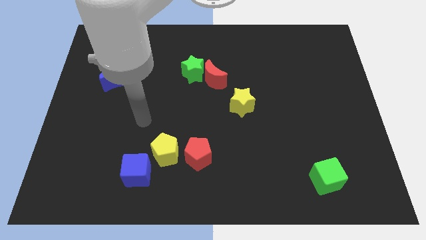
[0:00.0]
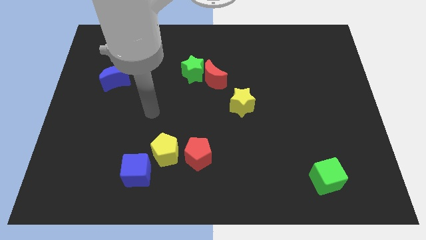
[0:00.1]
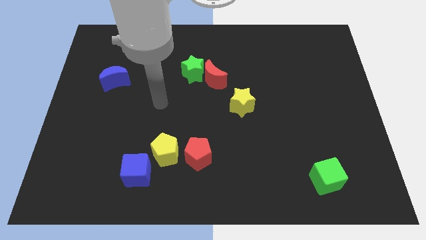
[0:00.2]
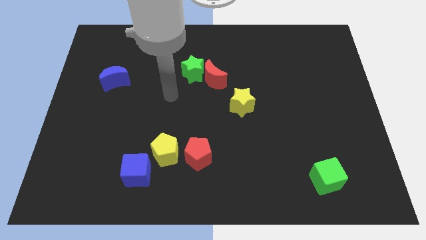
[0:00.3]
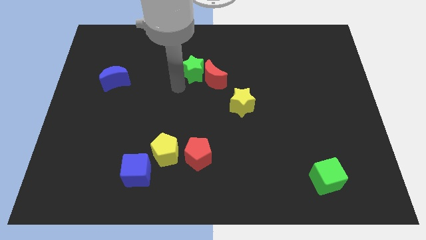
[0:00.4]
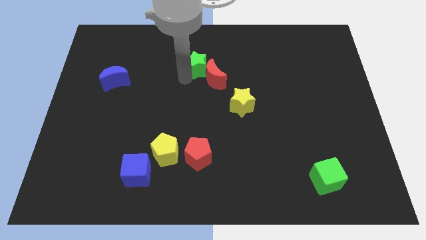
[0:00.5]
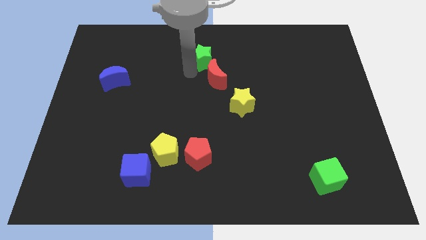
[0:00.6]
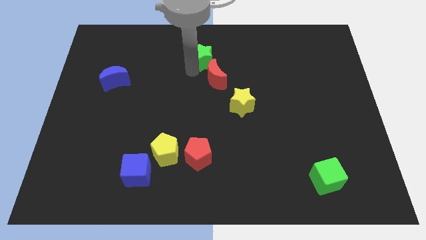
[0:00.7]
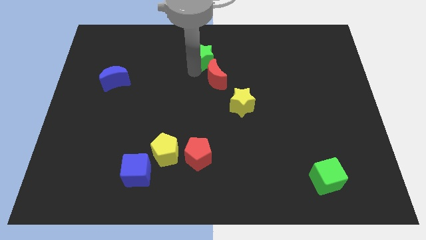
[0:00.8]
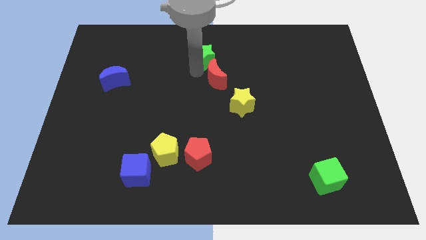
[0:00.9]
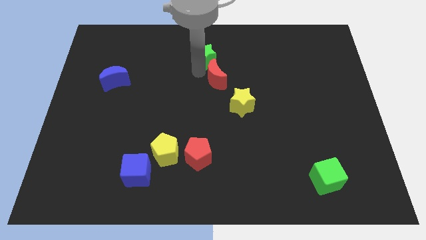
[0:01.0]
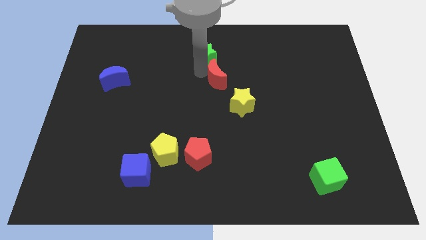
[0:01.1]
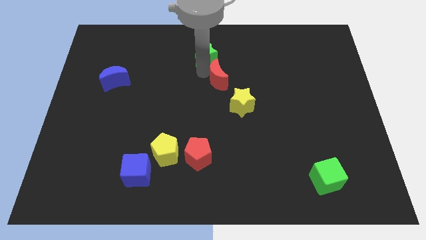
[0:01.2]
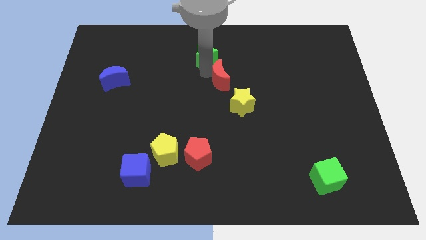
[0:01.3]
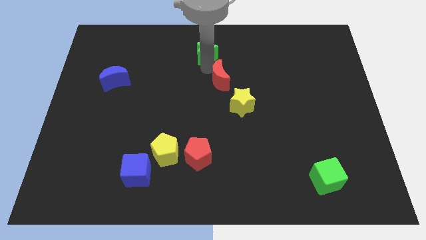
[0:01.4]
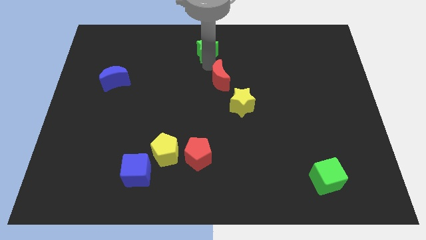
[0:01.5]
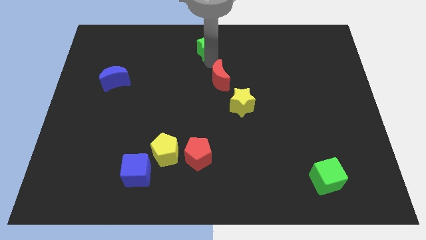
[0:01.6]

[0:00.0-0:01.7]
separate the red moon from the green star

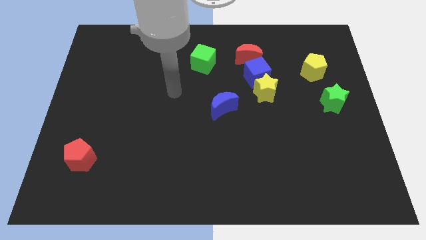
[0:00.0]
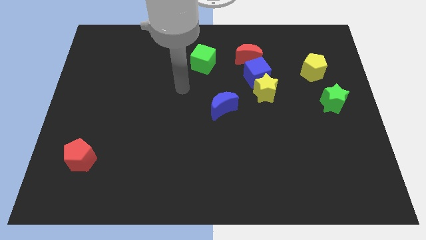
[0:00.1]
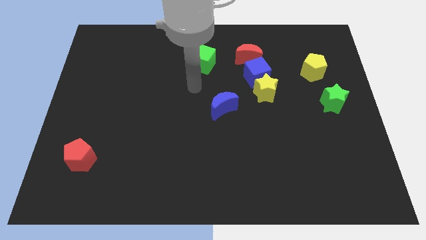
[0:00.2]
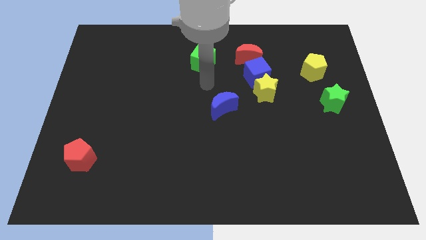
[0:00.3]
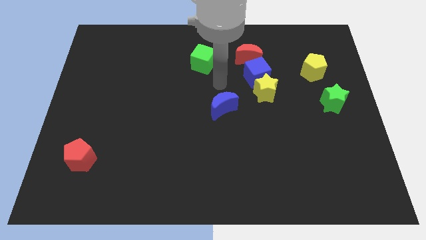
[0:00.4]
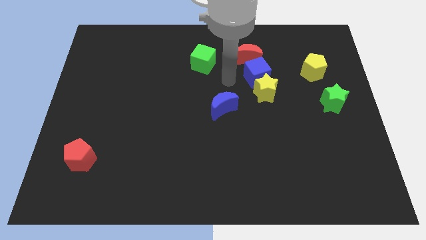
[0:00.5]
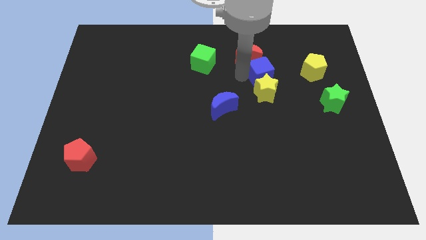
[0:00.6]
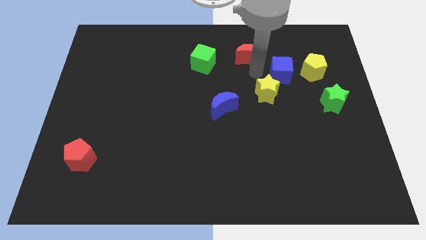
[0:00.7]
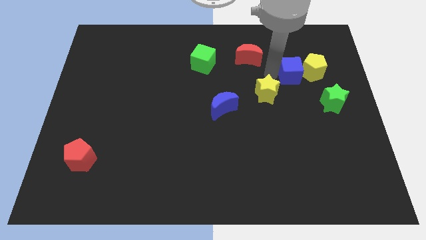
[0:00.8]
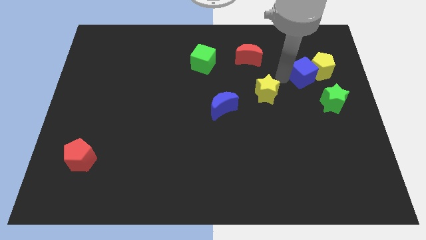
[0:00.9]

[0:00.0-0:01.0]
move the yellow star away from the blue cube

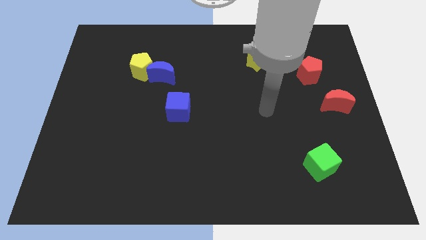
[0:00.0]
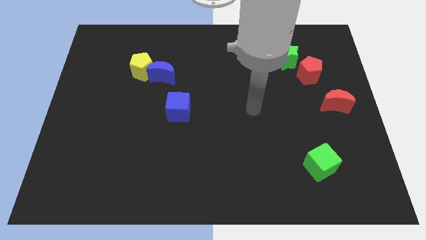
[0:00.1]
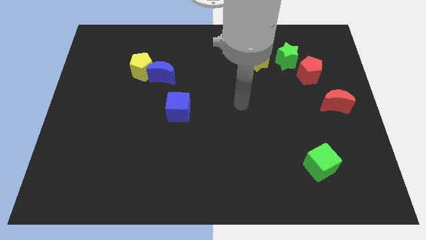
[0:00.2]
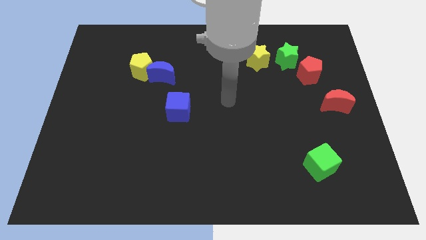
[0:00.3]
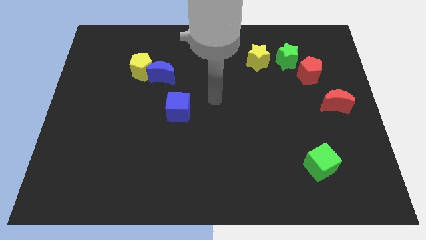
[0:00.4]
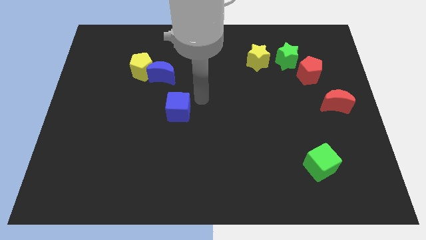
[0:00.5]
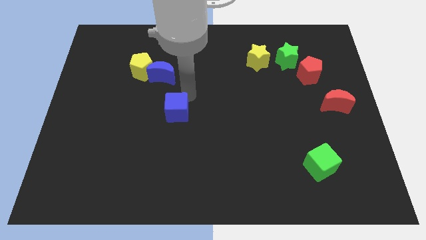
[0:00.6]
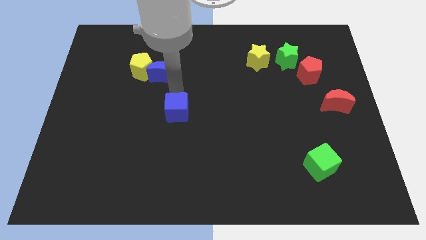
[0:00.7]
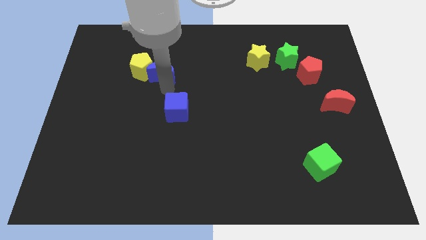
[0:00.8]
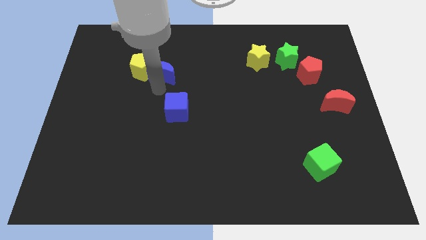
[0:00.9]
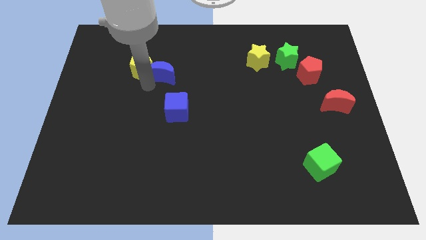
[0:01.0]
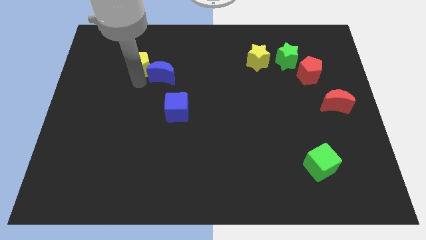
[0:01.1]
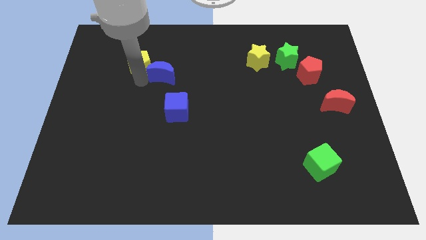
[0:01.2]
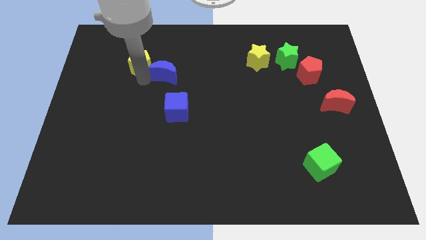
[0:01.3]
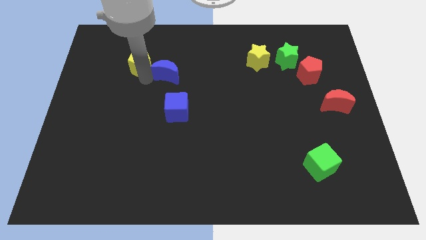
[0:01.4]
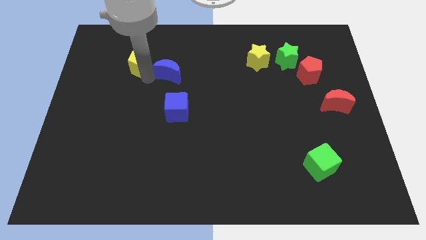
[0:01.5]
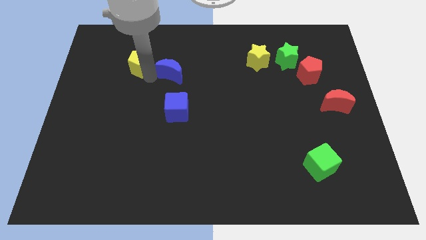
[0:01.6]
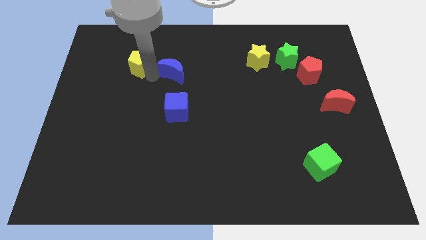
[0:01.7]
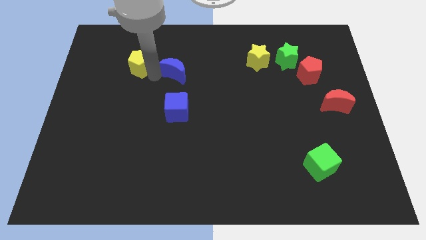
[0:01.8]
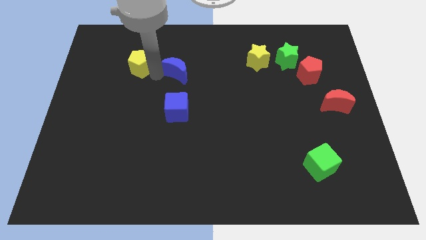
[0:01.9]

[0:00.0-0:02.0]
separate the blue moon from the yellow pentagon

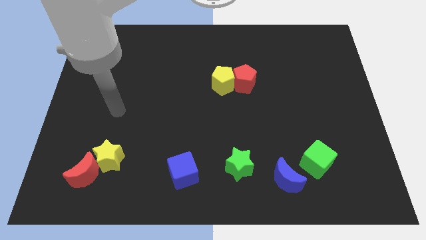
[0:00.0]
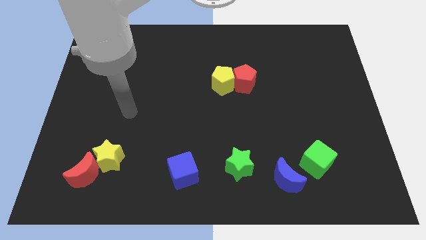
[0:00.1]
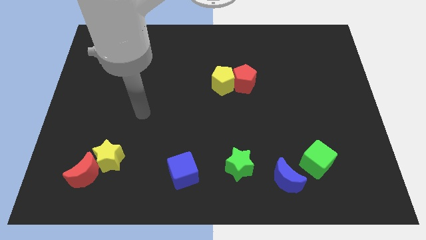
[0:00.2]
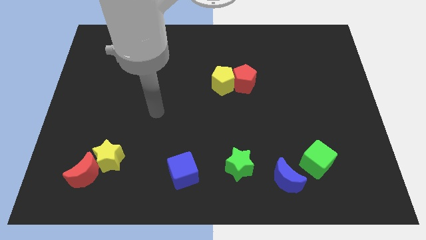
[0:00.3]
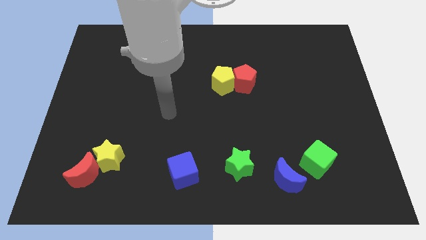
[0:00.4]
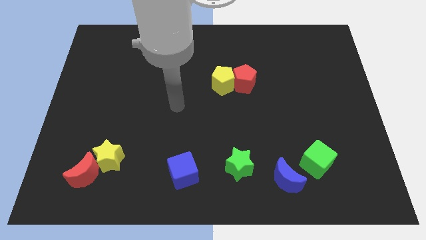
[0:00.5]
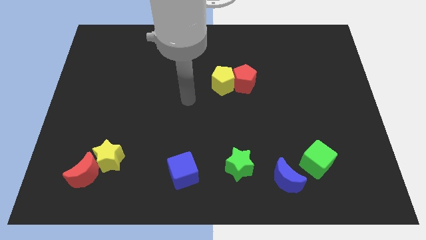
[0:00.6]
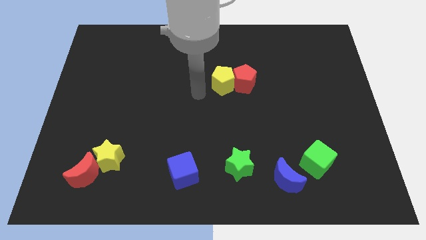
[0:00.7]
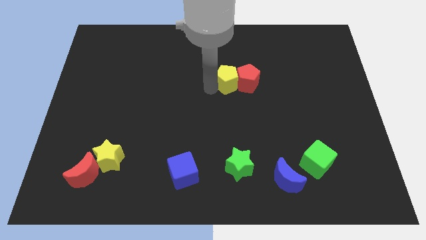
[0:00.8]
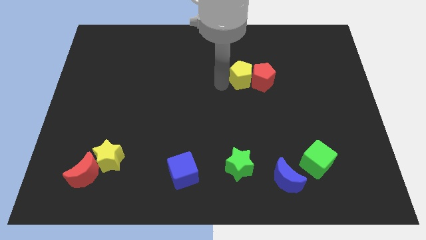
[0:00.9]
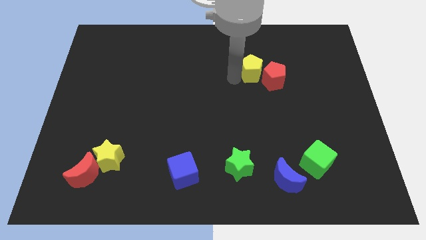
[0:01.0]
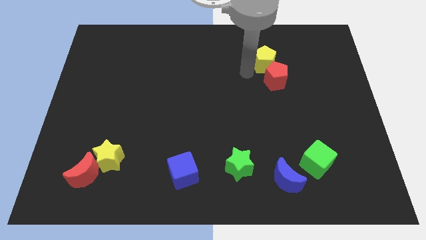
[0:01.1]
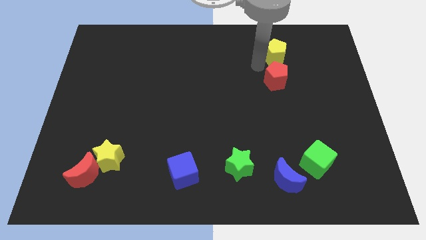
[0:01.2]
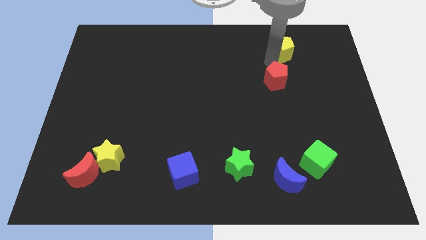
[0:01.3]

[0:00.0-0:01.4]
separate the red pentagon from the yellow pentagon

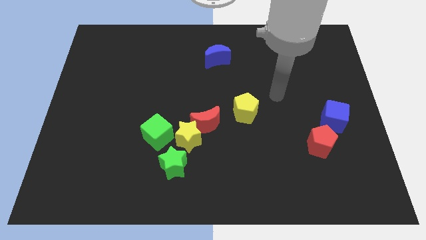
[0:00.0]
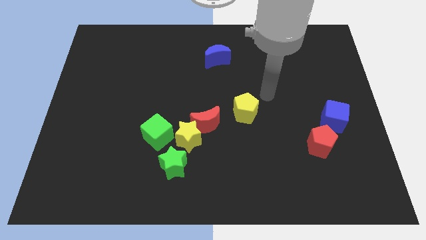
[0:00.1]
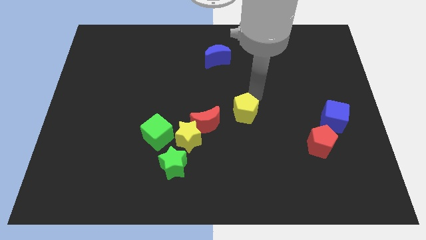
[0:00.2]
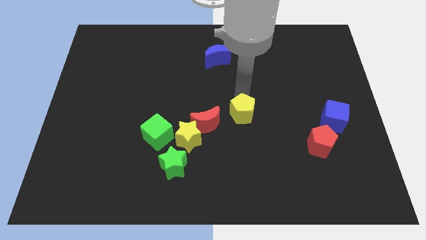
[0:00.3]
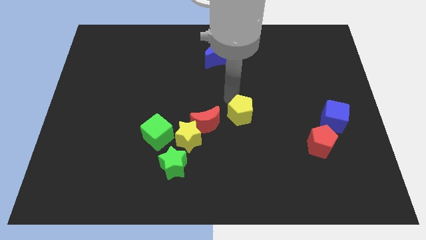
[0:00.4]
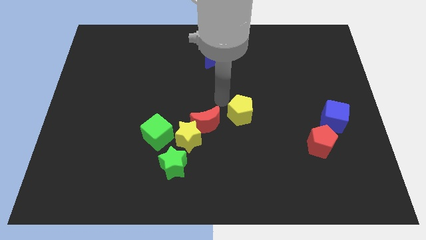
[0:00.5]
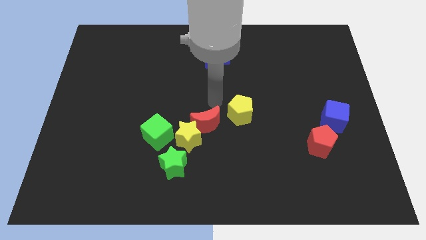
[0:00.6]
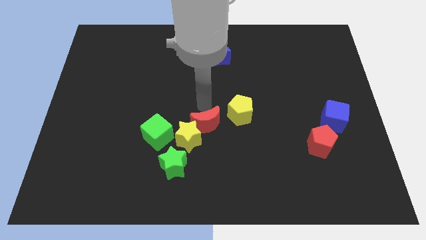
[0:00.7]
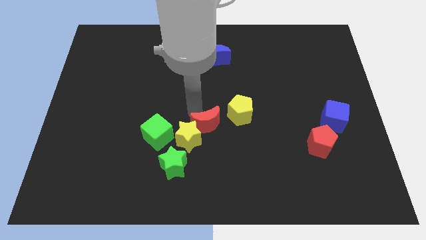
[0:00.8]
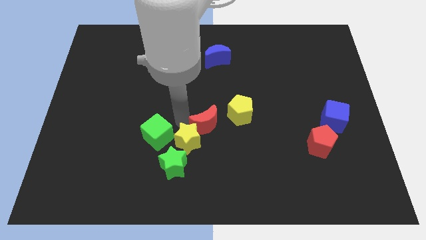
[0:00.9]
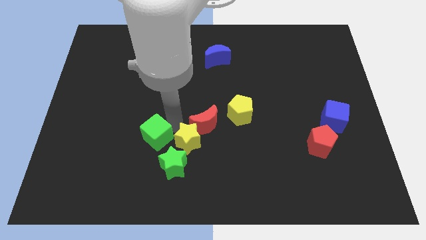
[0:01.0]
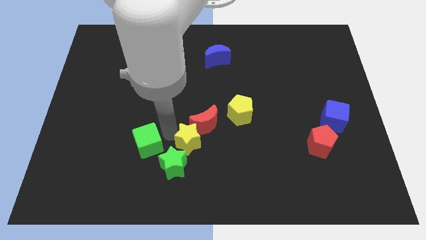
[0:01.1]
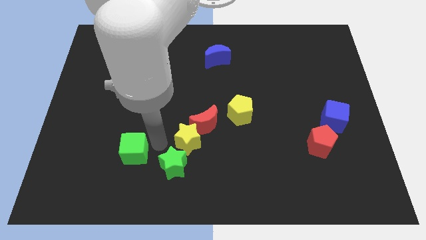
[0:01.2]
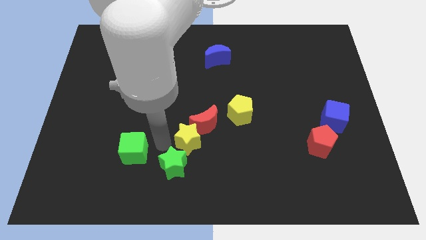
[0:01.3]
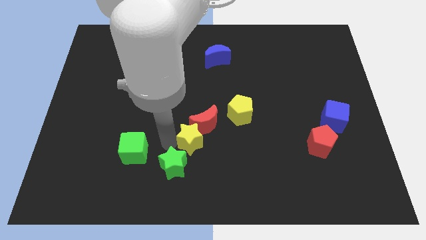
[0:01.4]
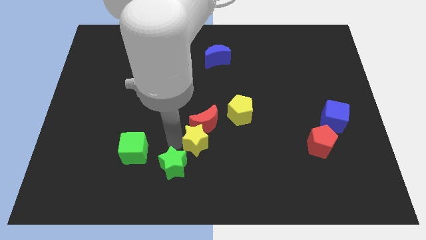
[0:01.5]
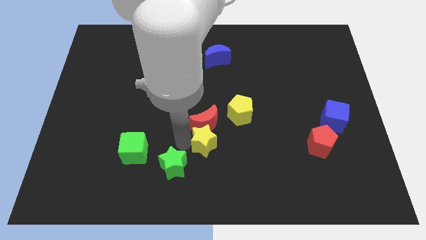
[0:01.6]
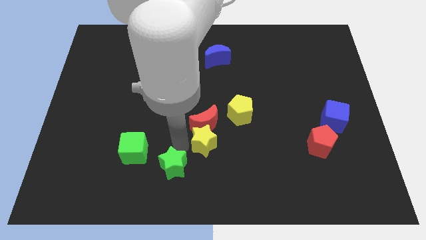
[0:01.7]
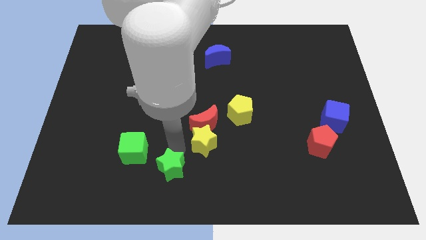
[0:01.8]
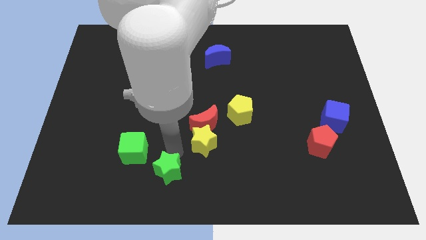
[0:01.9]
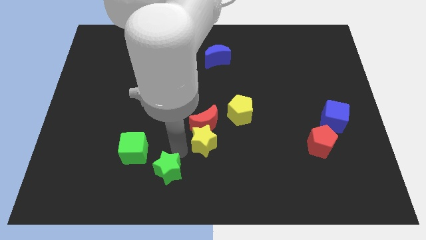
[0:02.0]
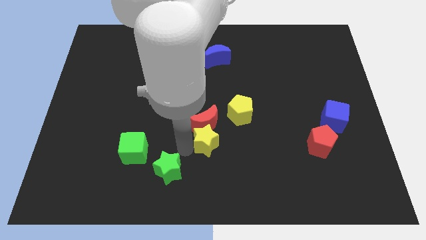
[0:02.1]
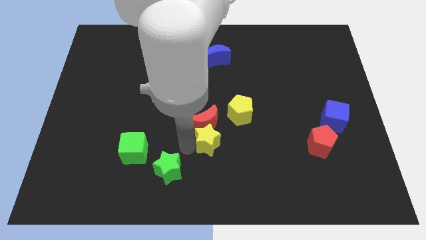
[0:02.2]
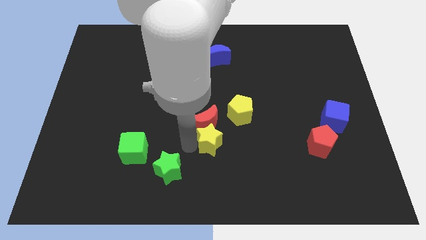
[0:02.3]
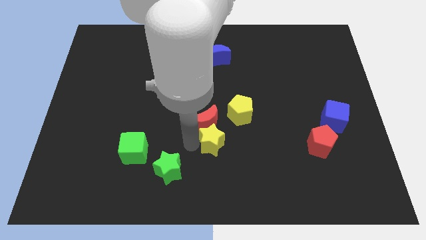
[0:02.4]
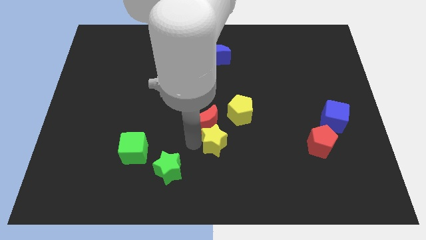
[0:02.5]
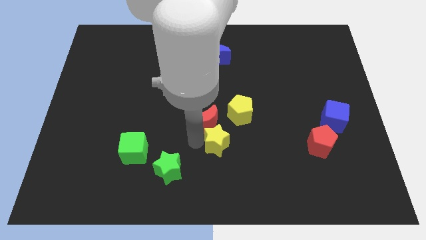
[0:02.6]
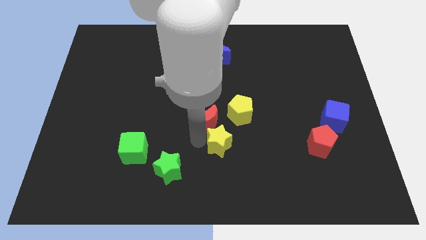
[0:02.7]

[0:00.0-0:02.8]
pull the yellow star apart from the group of blocks

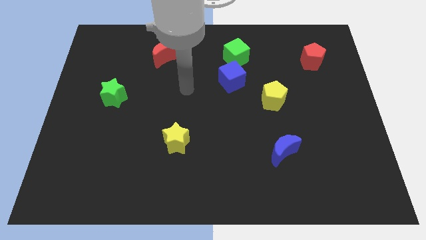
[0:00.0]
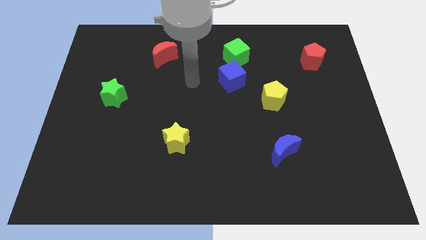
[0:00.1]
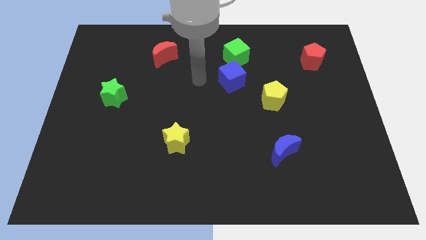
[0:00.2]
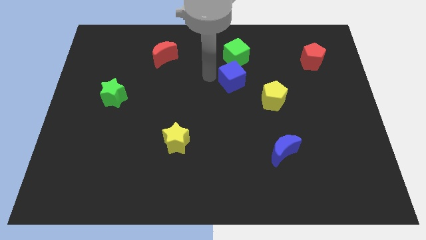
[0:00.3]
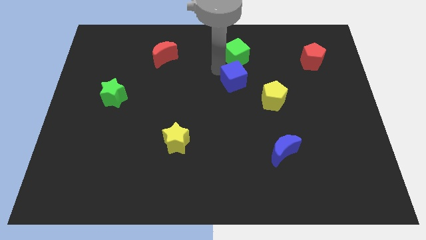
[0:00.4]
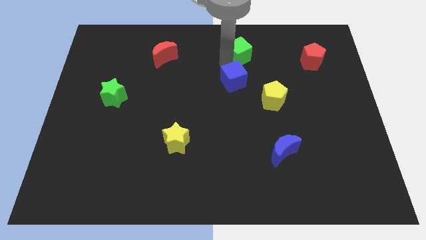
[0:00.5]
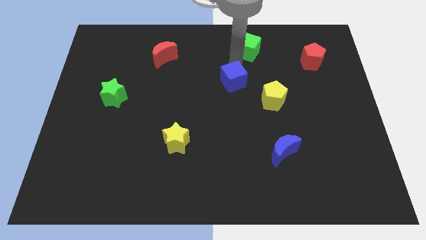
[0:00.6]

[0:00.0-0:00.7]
separate the blue cube from the green cube
